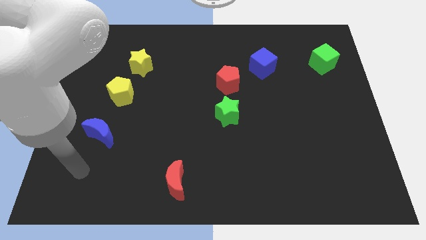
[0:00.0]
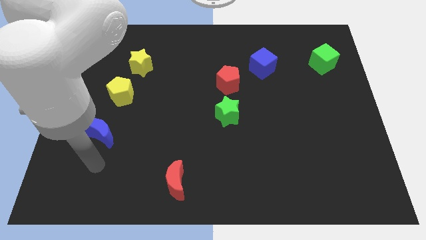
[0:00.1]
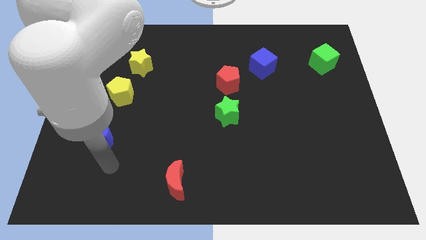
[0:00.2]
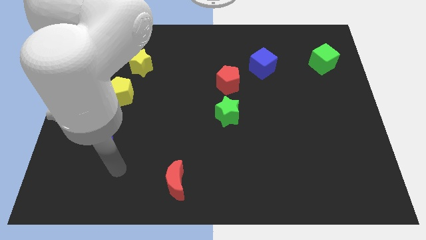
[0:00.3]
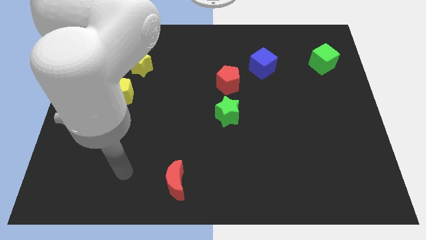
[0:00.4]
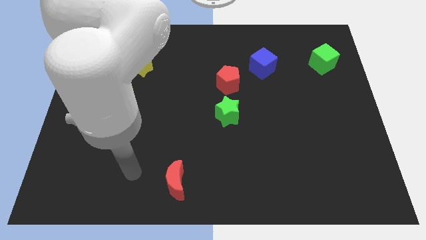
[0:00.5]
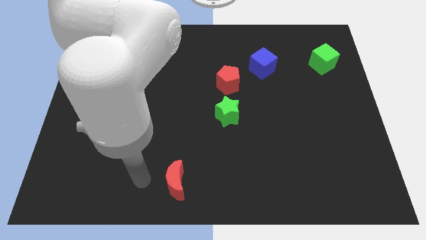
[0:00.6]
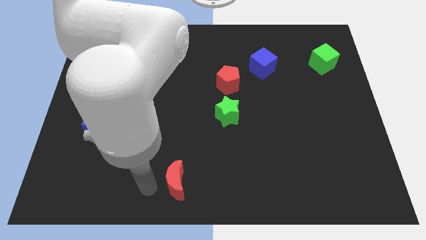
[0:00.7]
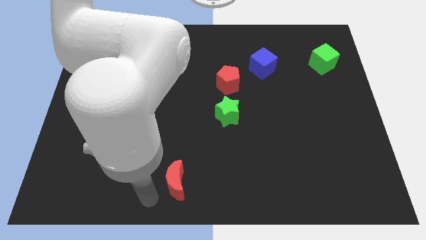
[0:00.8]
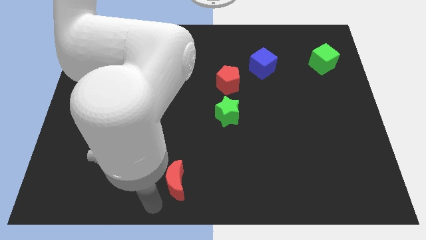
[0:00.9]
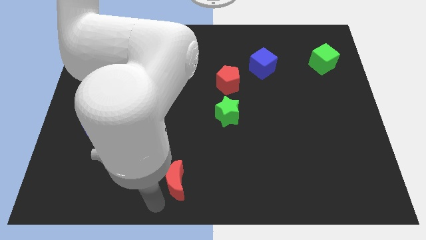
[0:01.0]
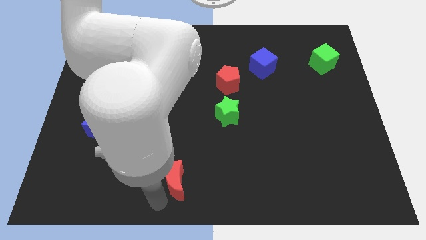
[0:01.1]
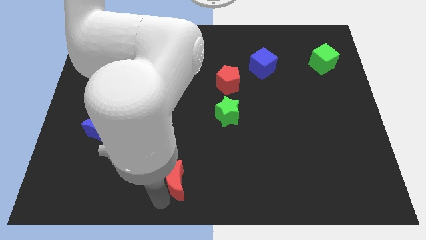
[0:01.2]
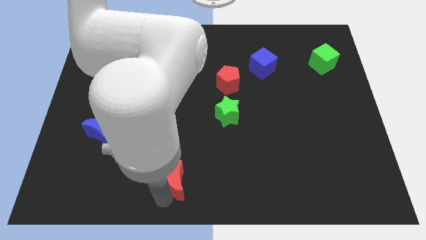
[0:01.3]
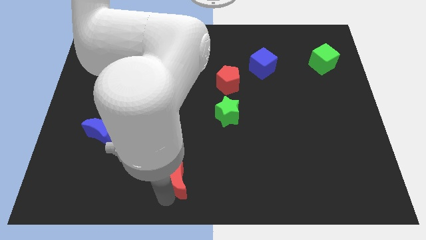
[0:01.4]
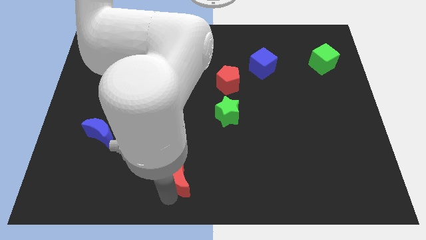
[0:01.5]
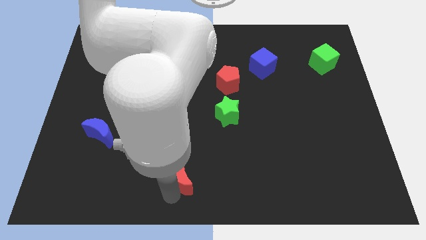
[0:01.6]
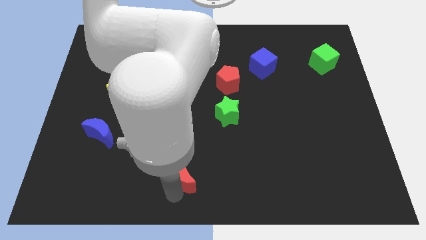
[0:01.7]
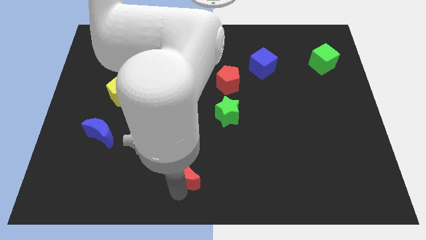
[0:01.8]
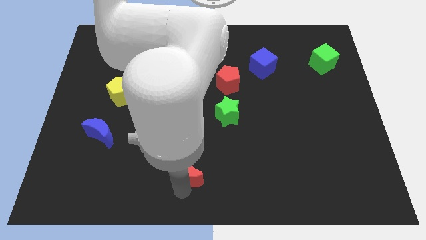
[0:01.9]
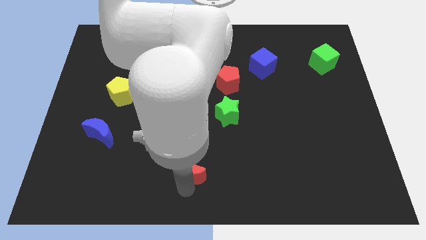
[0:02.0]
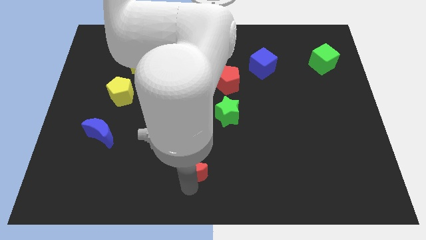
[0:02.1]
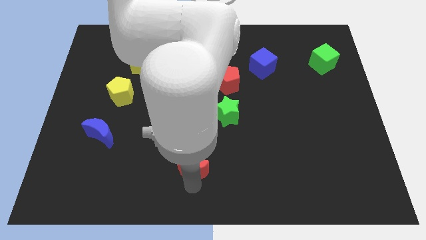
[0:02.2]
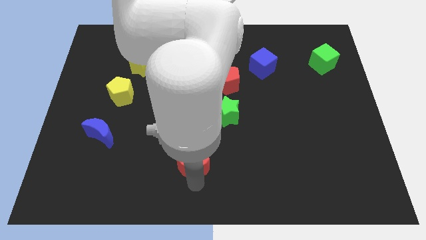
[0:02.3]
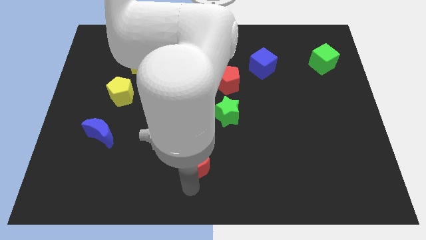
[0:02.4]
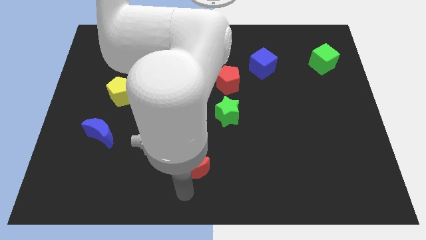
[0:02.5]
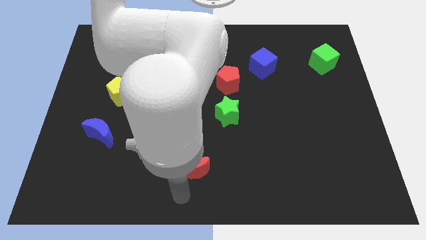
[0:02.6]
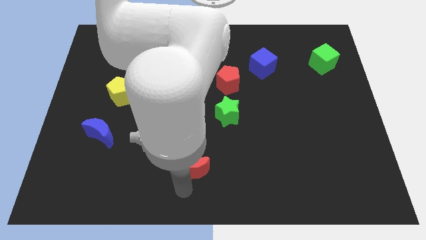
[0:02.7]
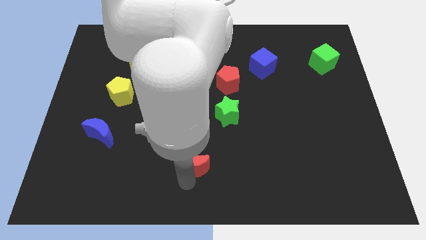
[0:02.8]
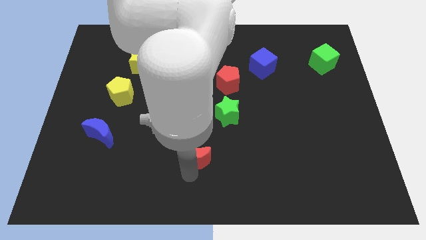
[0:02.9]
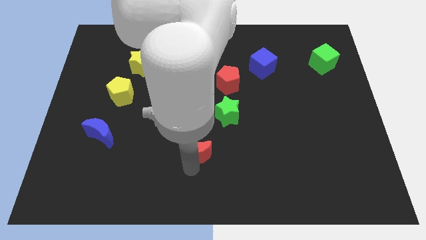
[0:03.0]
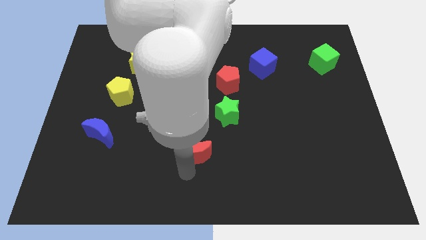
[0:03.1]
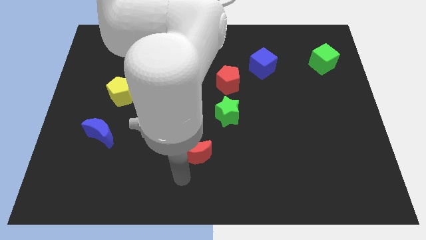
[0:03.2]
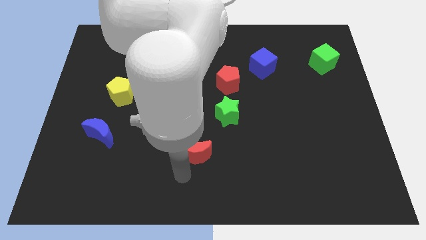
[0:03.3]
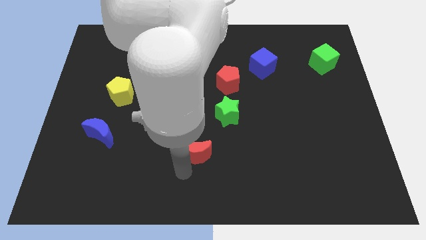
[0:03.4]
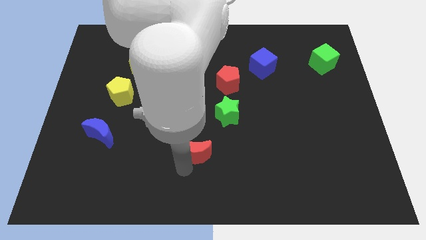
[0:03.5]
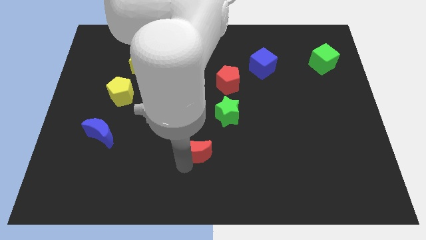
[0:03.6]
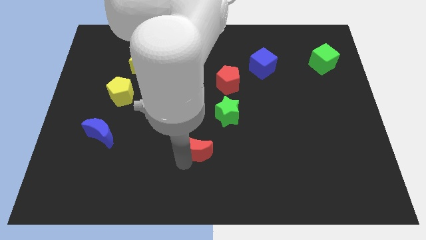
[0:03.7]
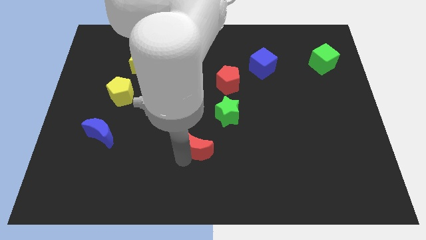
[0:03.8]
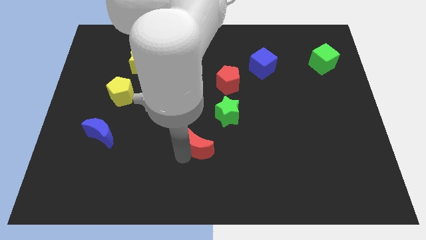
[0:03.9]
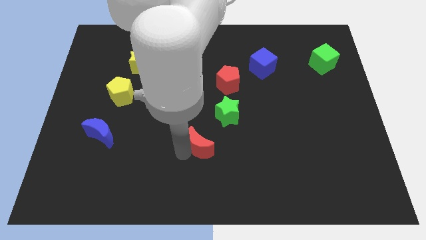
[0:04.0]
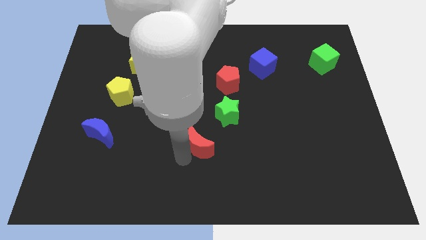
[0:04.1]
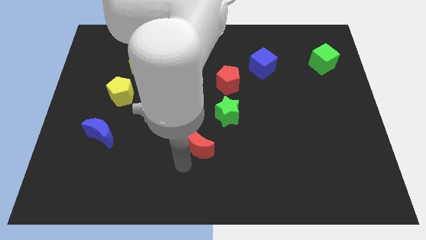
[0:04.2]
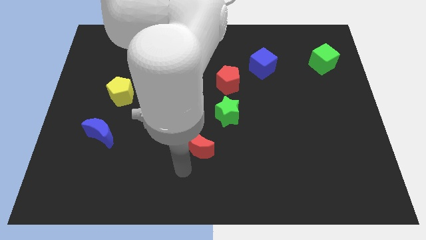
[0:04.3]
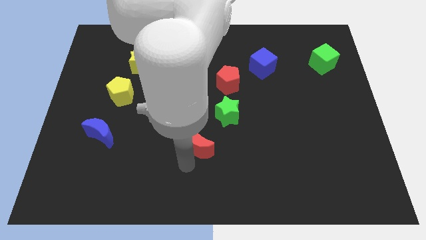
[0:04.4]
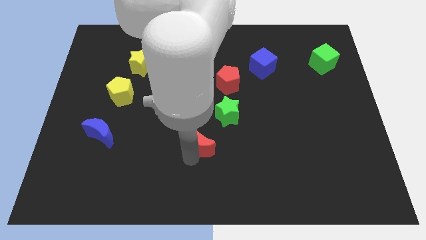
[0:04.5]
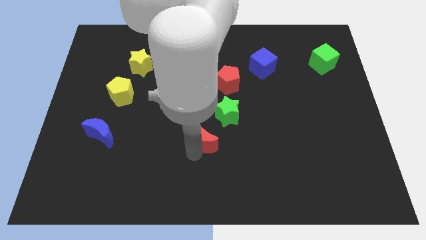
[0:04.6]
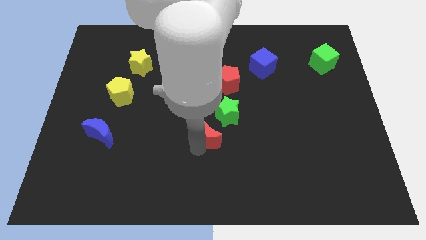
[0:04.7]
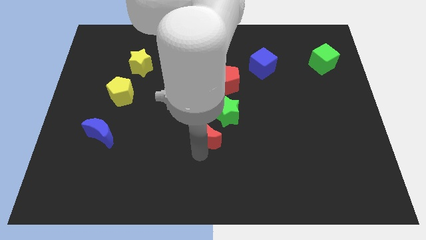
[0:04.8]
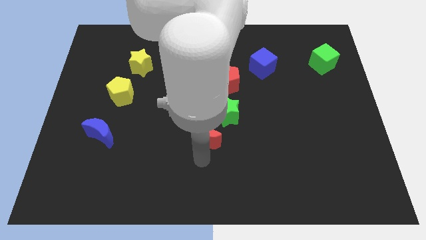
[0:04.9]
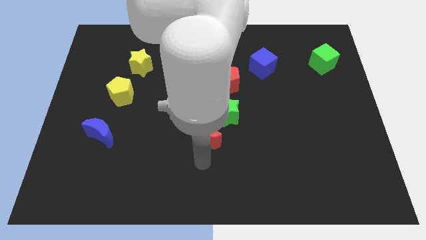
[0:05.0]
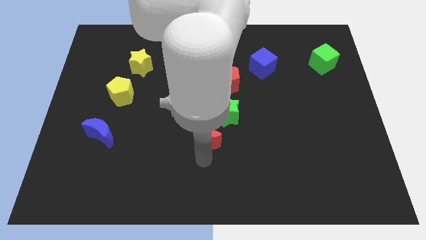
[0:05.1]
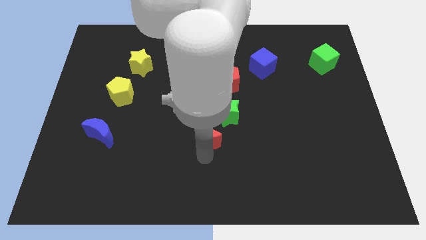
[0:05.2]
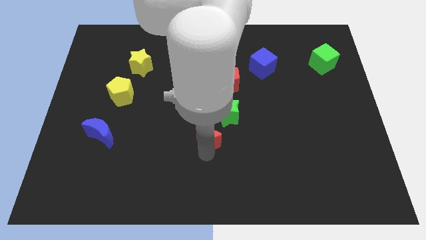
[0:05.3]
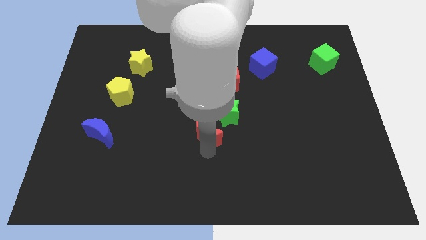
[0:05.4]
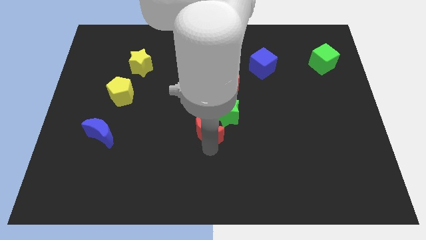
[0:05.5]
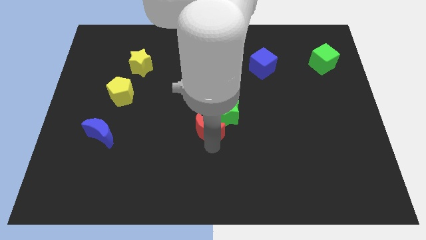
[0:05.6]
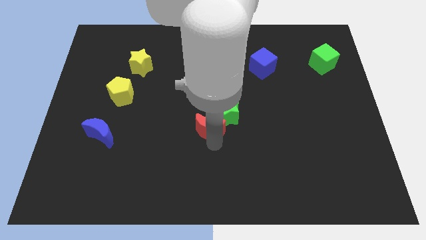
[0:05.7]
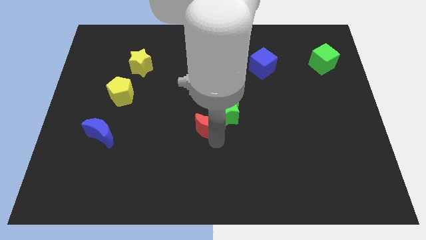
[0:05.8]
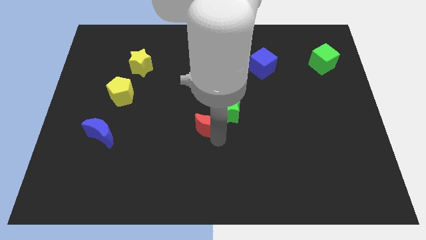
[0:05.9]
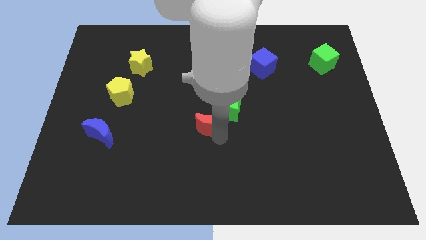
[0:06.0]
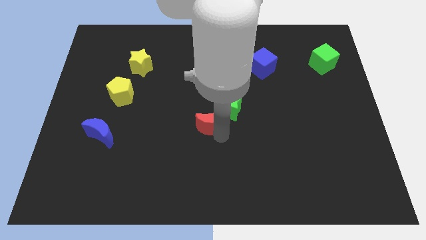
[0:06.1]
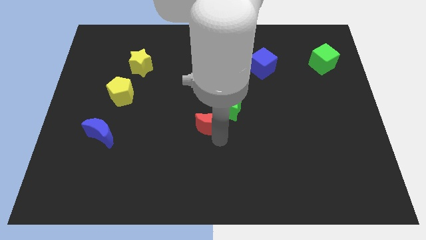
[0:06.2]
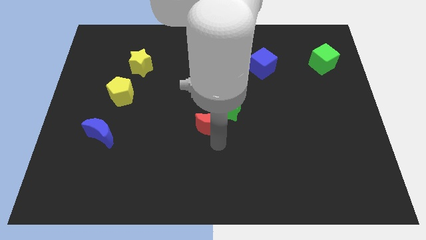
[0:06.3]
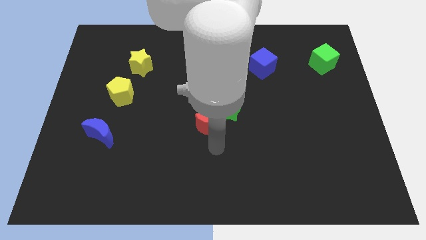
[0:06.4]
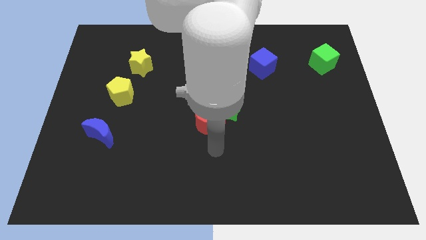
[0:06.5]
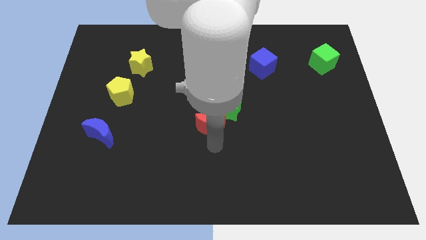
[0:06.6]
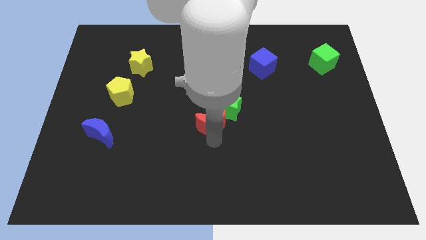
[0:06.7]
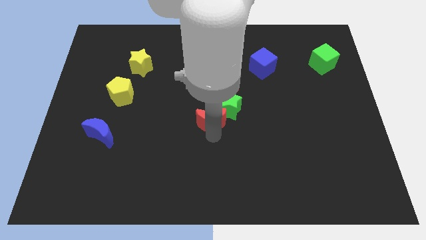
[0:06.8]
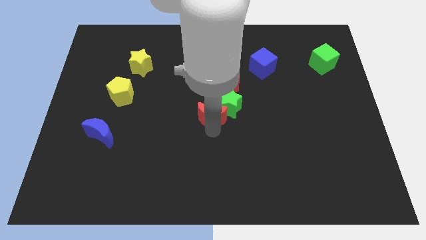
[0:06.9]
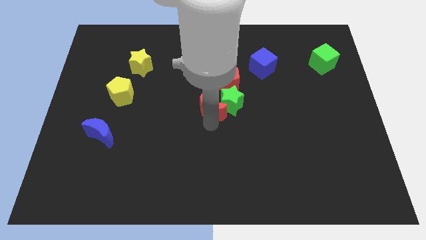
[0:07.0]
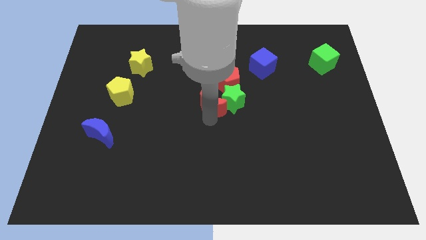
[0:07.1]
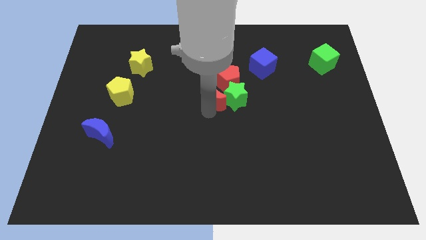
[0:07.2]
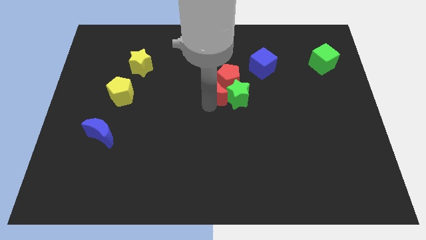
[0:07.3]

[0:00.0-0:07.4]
put the red moon to the red pentagon
